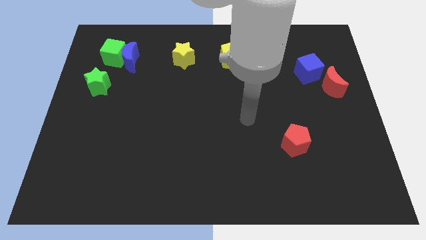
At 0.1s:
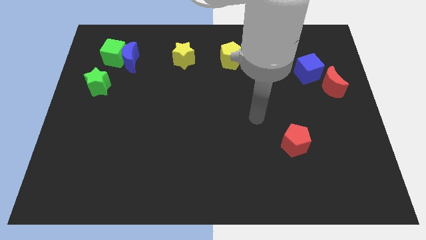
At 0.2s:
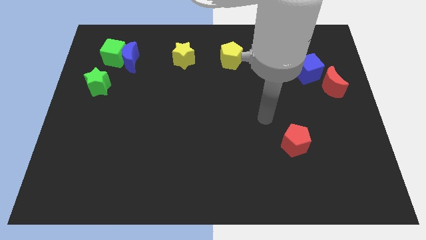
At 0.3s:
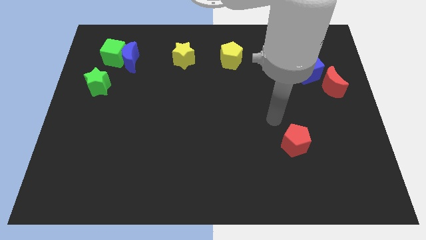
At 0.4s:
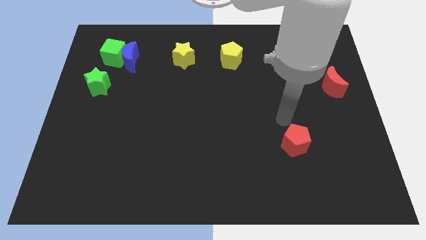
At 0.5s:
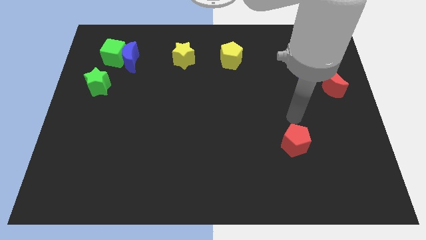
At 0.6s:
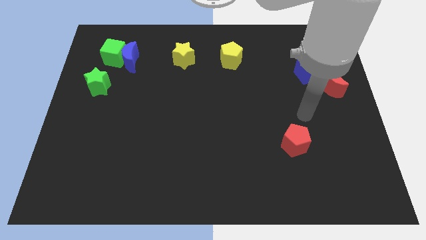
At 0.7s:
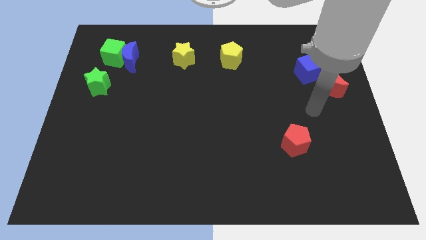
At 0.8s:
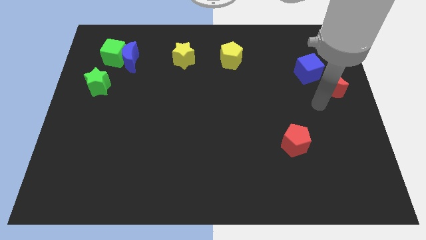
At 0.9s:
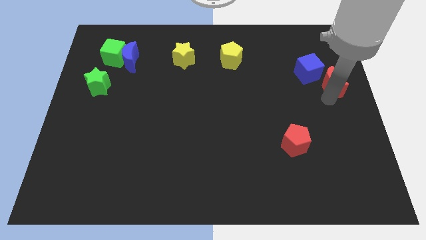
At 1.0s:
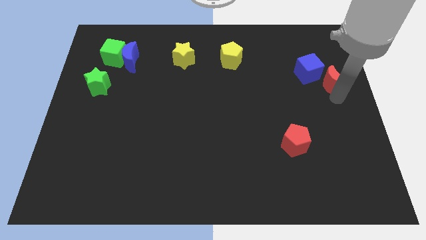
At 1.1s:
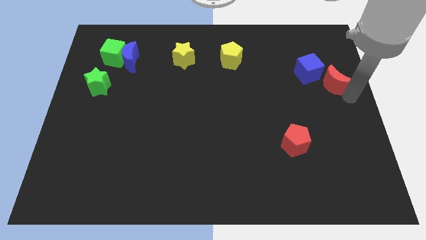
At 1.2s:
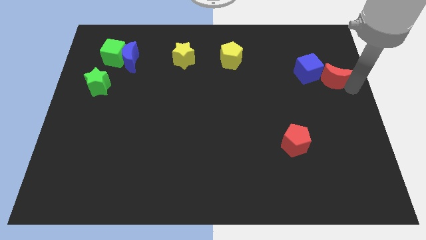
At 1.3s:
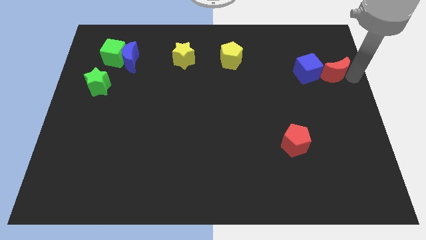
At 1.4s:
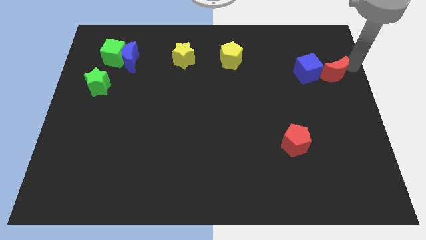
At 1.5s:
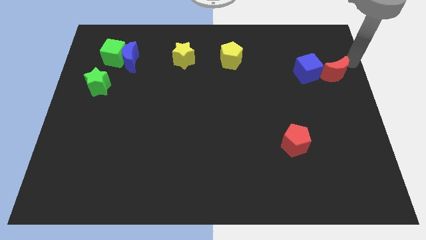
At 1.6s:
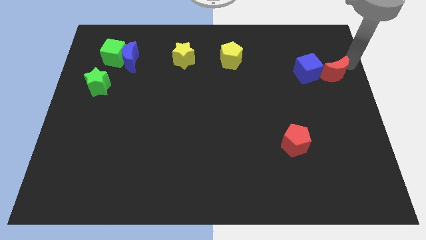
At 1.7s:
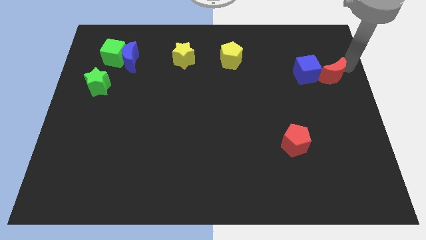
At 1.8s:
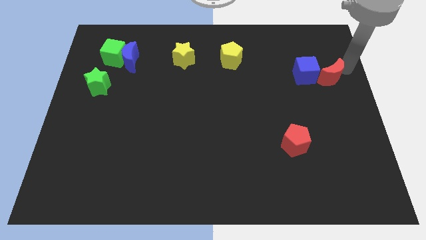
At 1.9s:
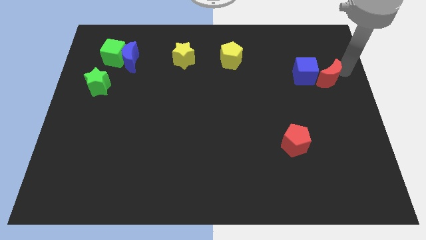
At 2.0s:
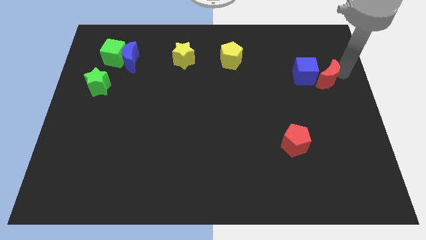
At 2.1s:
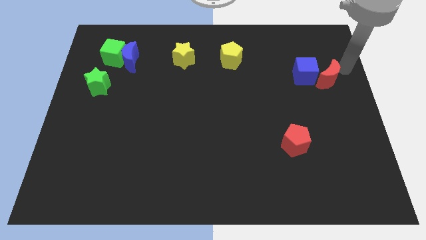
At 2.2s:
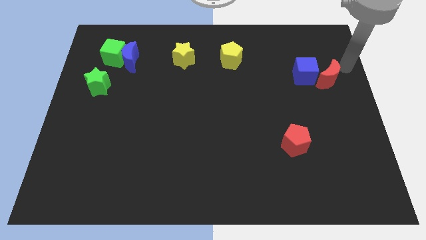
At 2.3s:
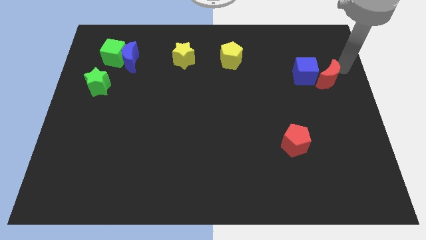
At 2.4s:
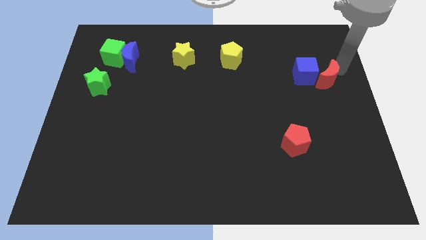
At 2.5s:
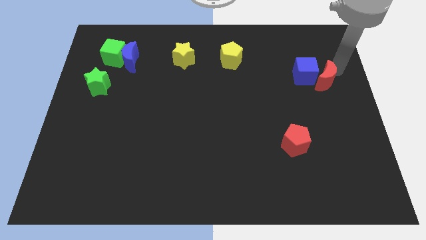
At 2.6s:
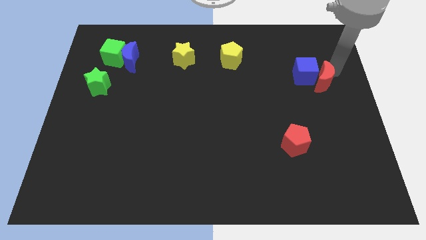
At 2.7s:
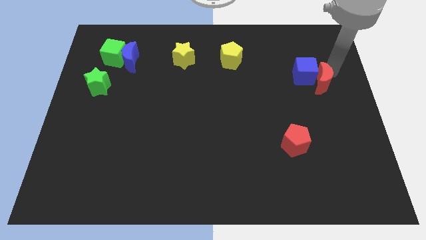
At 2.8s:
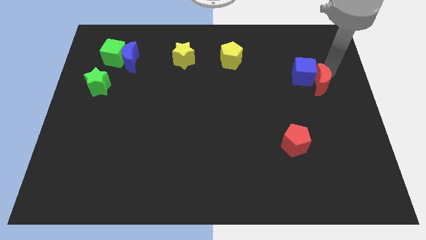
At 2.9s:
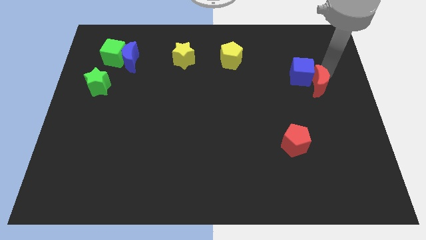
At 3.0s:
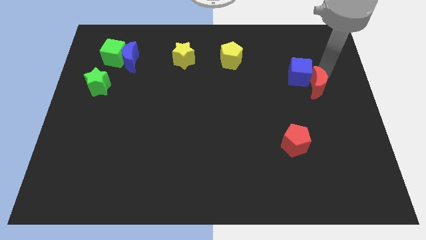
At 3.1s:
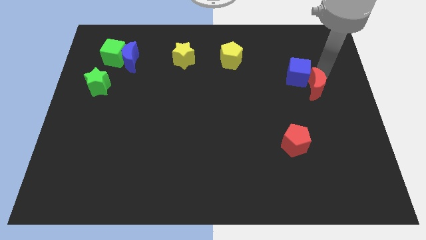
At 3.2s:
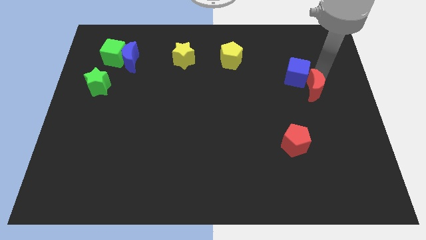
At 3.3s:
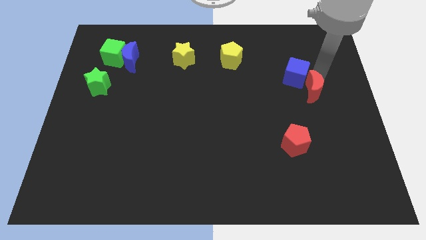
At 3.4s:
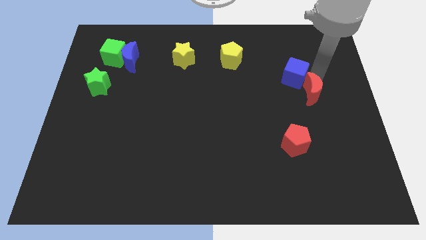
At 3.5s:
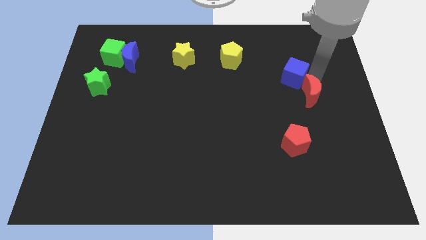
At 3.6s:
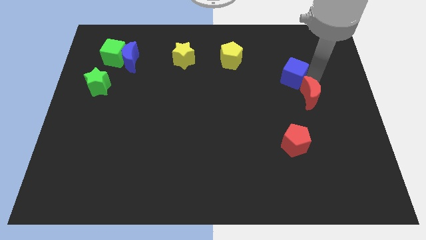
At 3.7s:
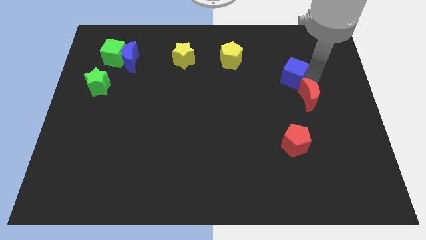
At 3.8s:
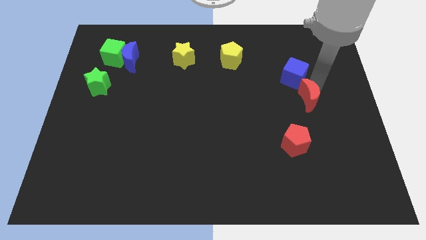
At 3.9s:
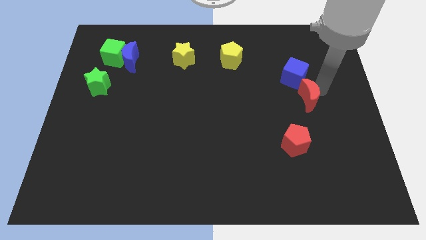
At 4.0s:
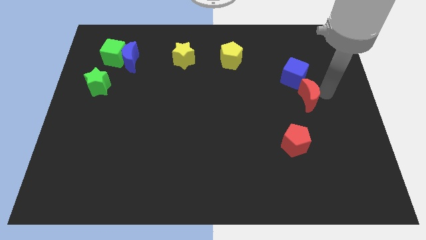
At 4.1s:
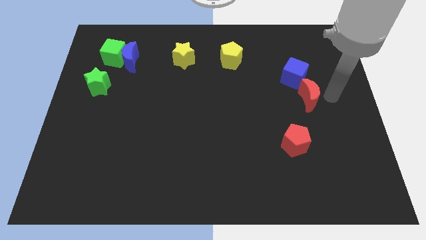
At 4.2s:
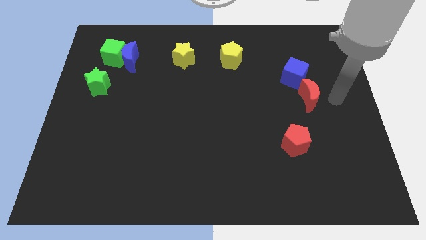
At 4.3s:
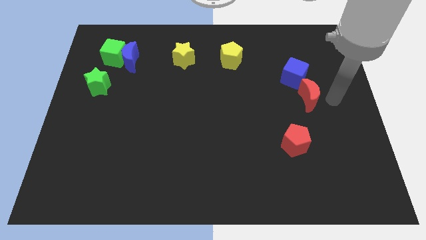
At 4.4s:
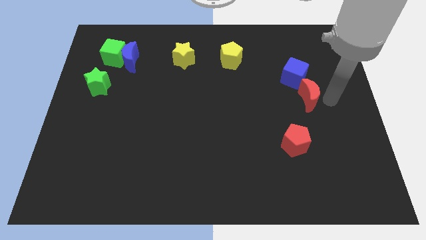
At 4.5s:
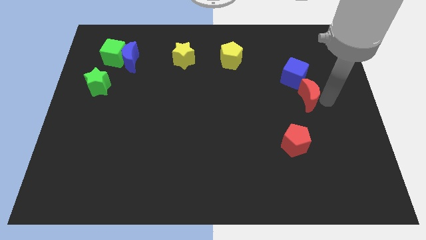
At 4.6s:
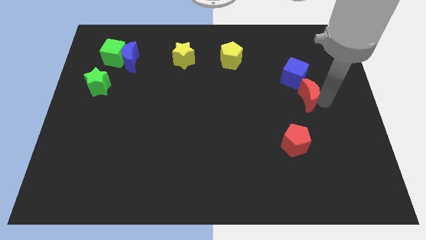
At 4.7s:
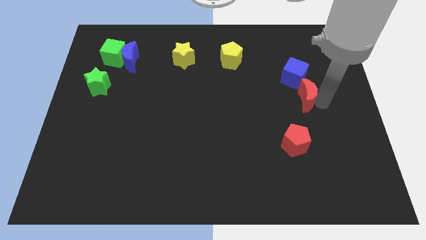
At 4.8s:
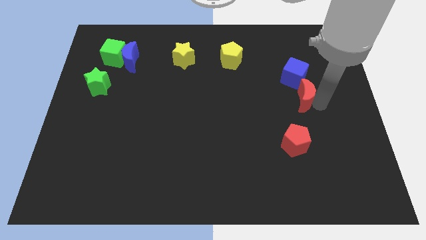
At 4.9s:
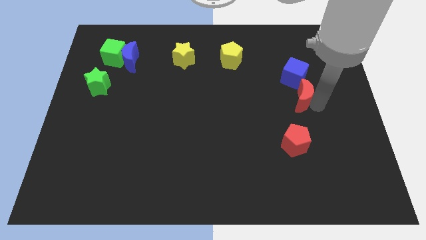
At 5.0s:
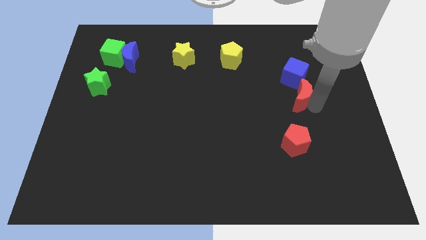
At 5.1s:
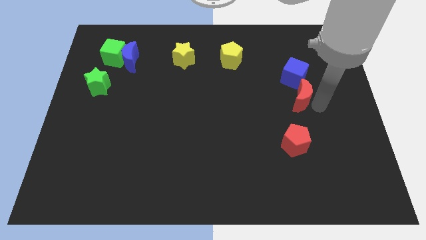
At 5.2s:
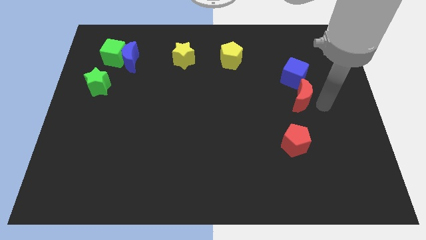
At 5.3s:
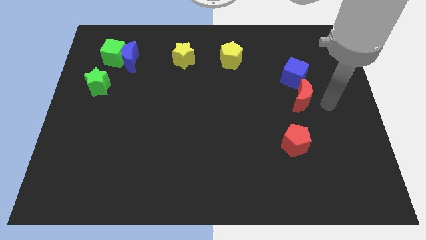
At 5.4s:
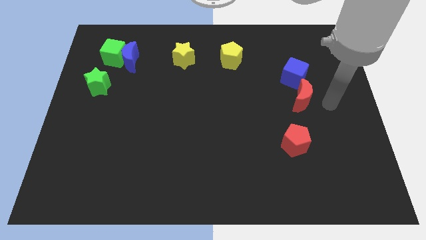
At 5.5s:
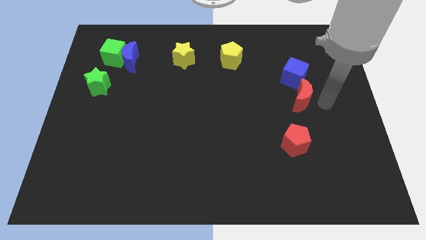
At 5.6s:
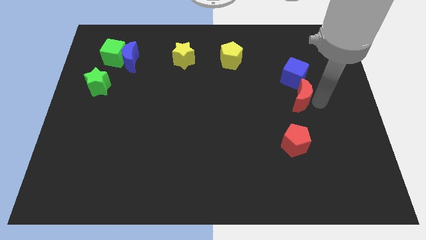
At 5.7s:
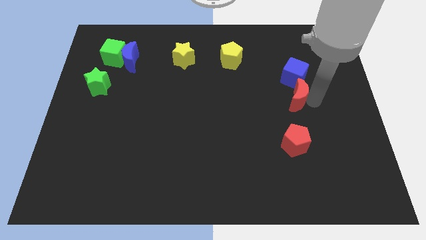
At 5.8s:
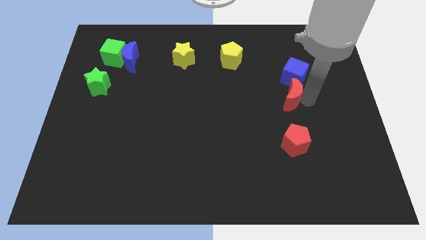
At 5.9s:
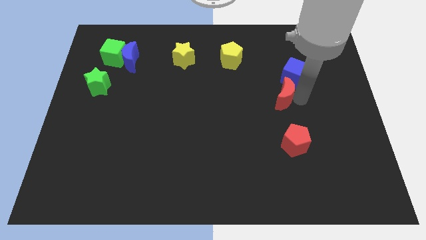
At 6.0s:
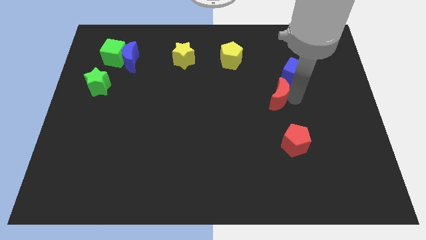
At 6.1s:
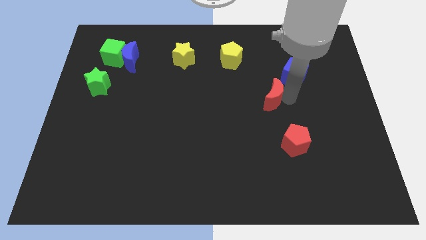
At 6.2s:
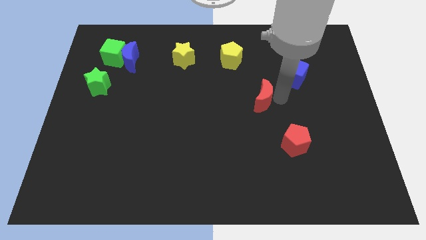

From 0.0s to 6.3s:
move the red moon to the middle

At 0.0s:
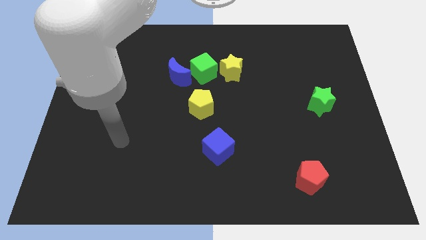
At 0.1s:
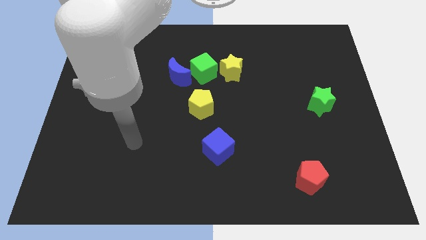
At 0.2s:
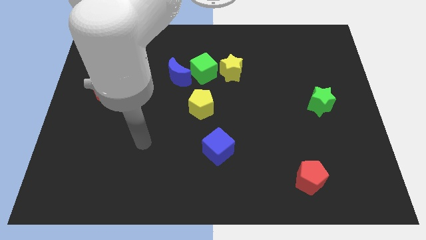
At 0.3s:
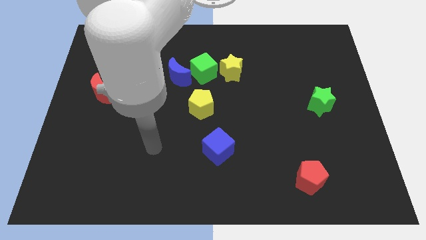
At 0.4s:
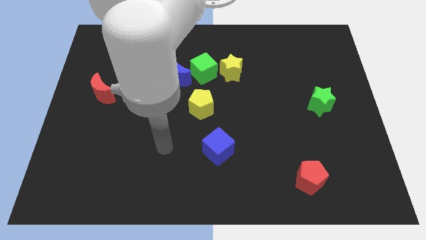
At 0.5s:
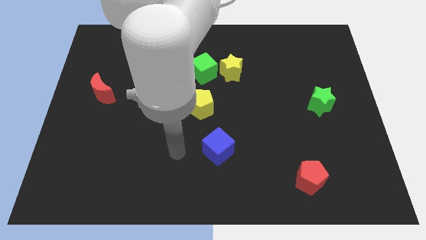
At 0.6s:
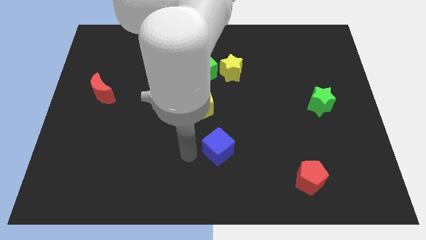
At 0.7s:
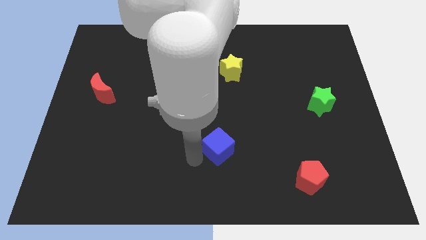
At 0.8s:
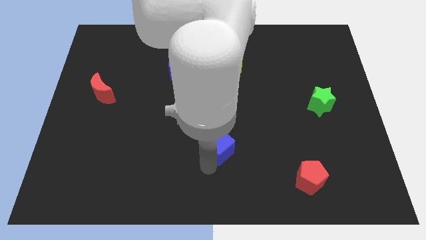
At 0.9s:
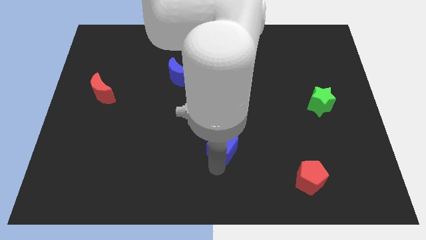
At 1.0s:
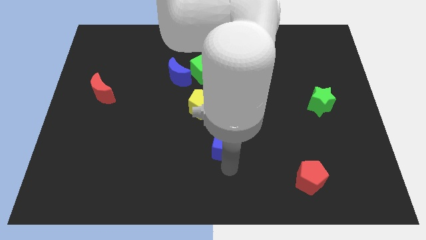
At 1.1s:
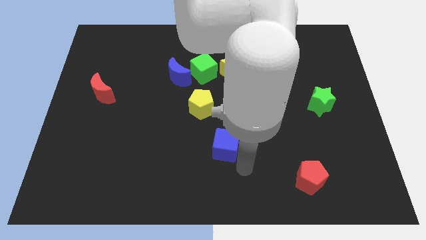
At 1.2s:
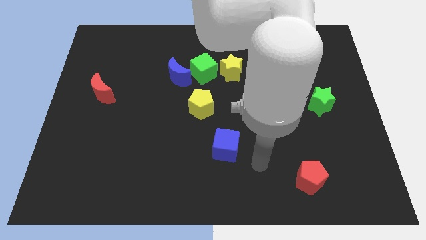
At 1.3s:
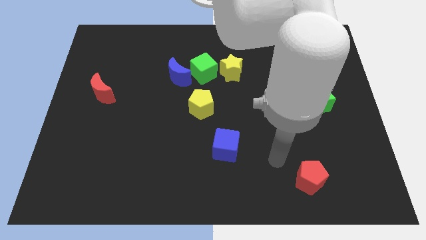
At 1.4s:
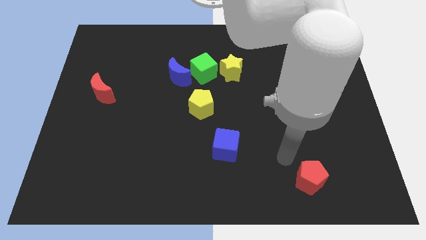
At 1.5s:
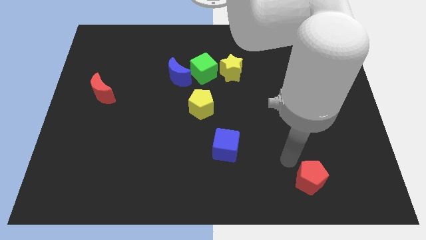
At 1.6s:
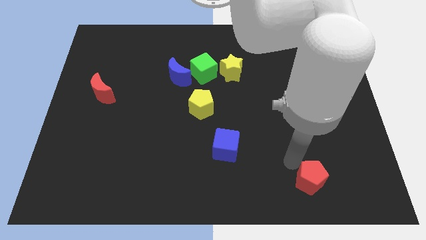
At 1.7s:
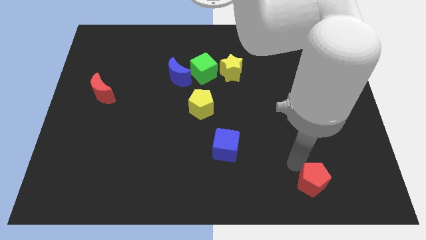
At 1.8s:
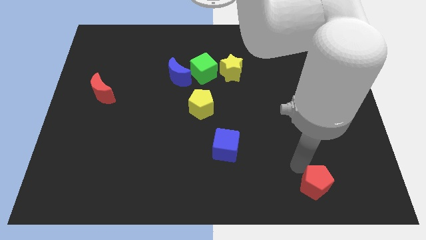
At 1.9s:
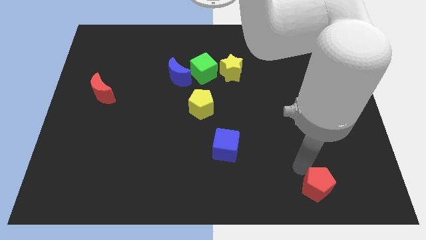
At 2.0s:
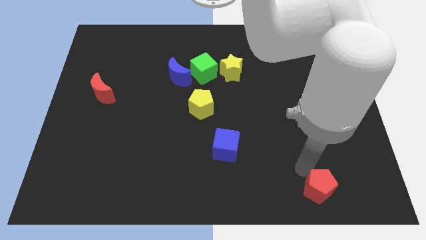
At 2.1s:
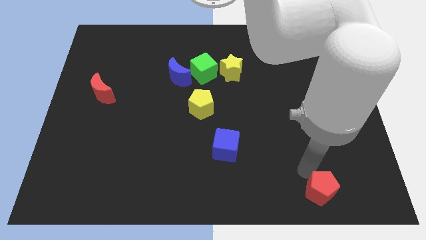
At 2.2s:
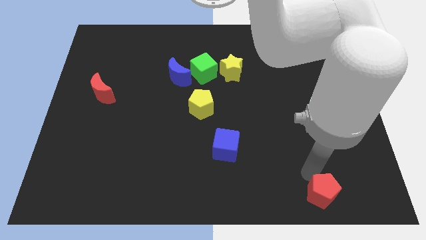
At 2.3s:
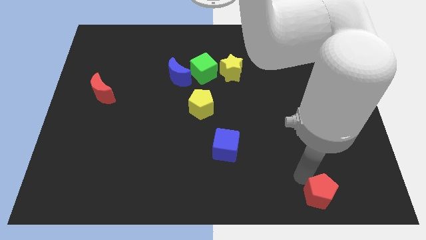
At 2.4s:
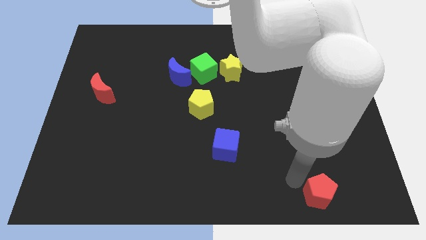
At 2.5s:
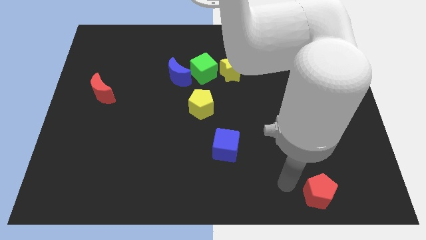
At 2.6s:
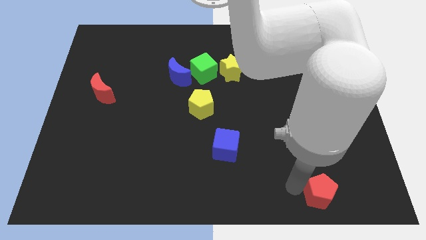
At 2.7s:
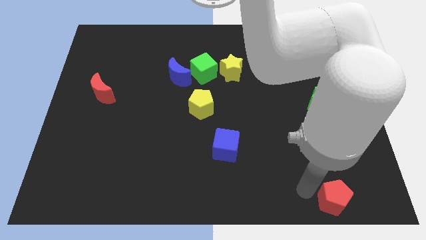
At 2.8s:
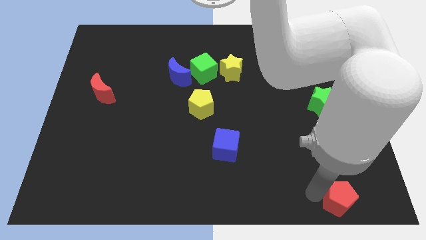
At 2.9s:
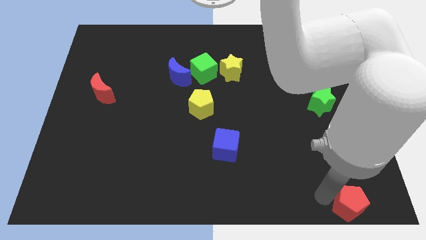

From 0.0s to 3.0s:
slide the red pentagon to the bottom right of the board
